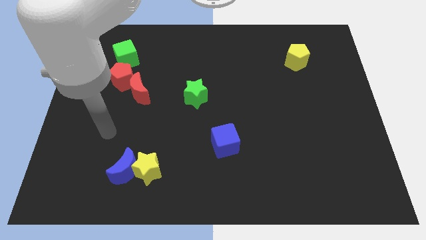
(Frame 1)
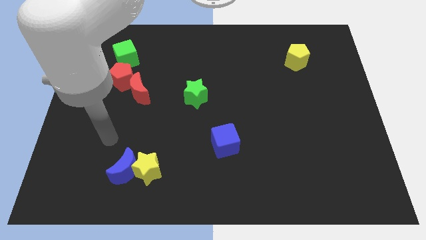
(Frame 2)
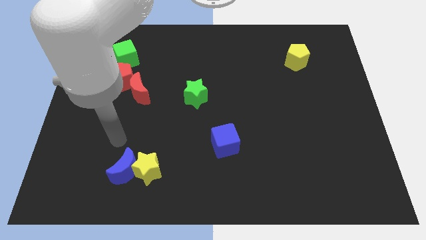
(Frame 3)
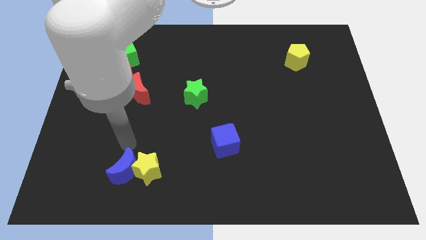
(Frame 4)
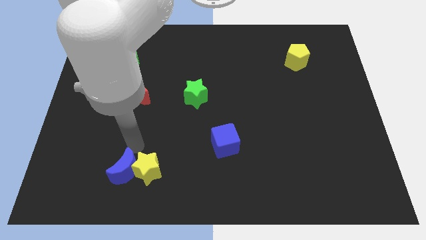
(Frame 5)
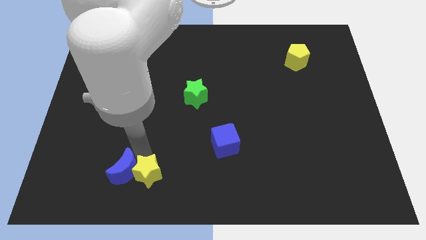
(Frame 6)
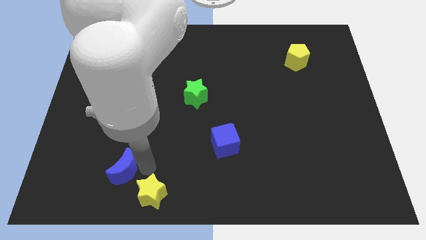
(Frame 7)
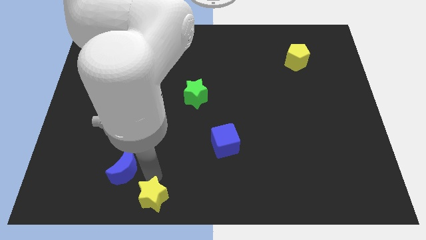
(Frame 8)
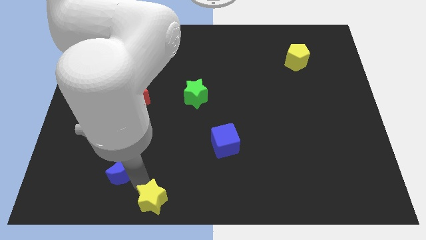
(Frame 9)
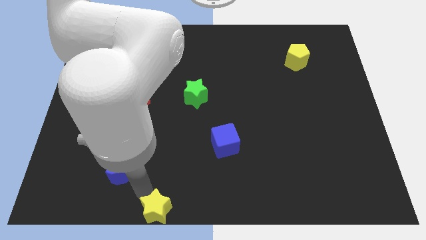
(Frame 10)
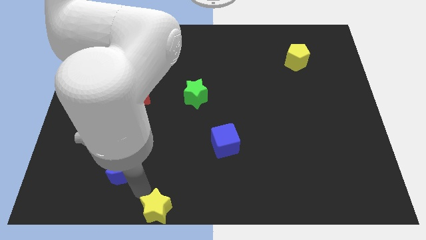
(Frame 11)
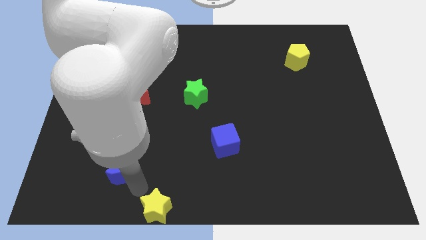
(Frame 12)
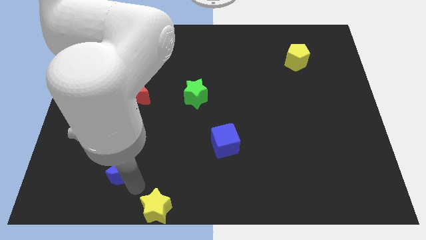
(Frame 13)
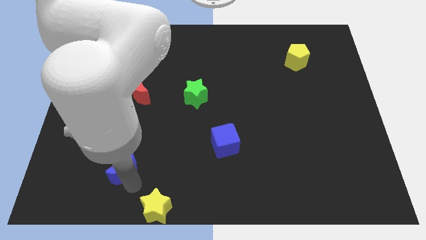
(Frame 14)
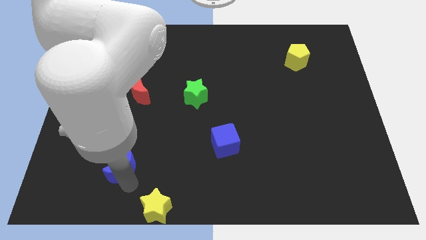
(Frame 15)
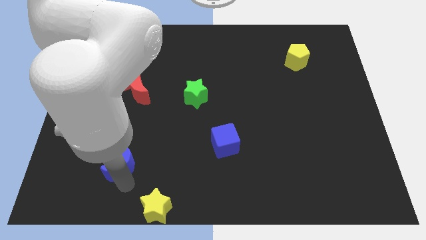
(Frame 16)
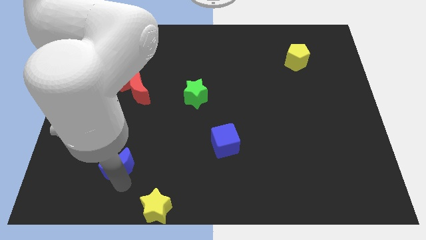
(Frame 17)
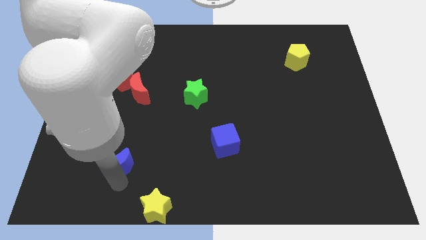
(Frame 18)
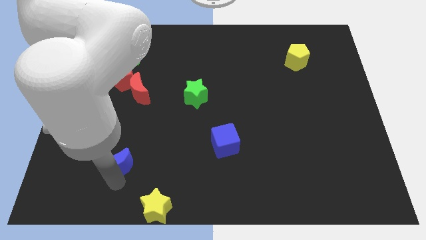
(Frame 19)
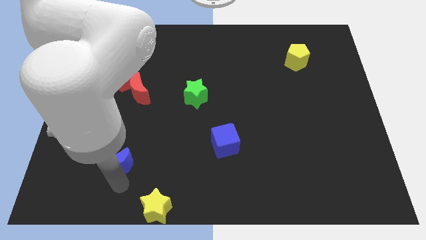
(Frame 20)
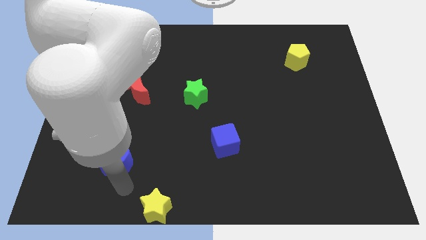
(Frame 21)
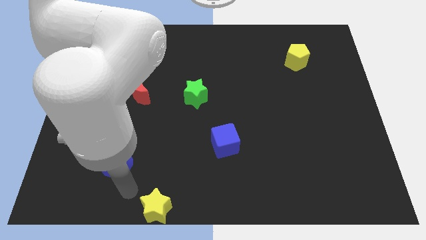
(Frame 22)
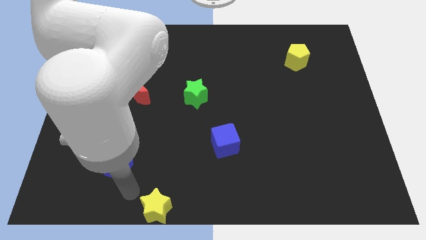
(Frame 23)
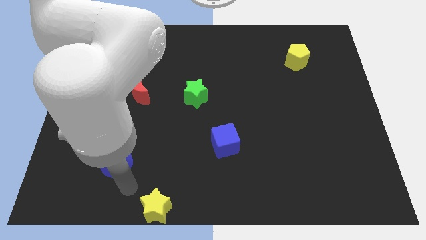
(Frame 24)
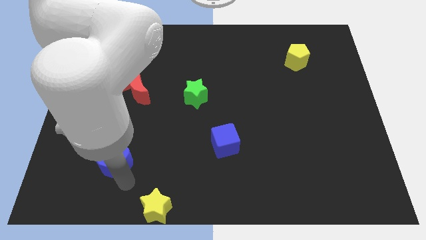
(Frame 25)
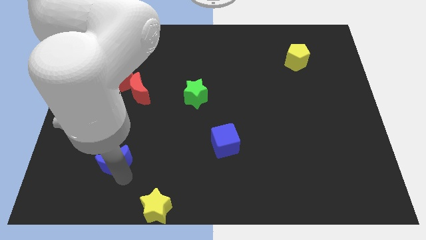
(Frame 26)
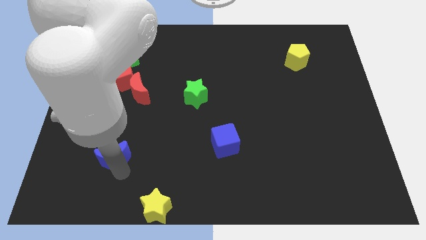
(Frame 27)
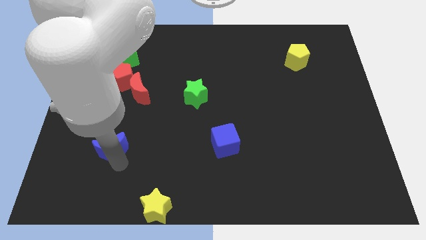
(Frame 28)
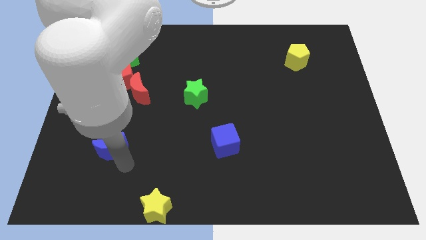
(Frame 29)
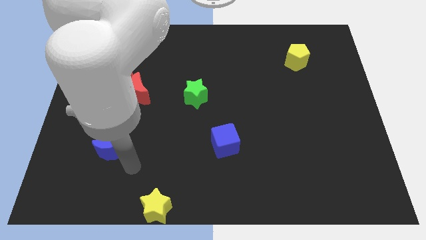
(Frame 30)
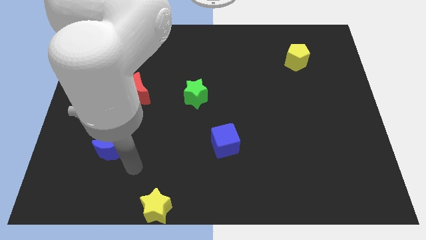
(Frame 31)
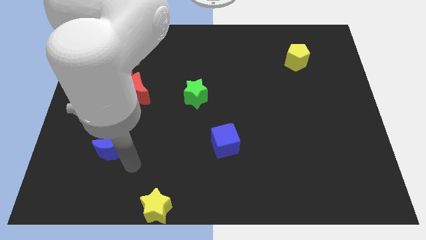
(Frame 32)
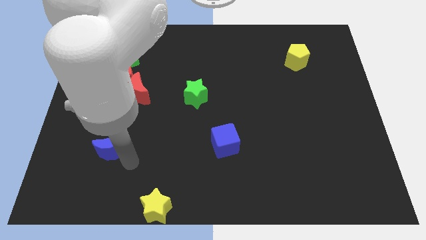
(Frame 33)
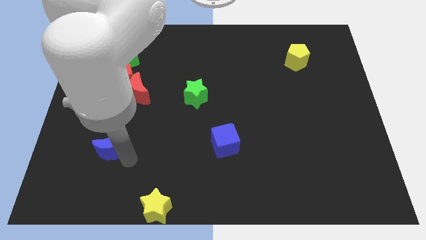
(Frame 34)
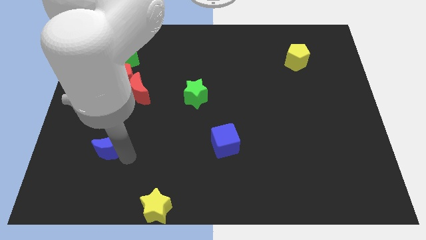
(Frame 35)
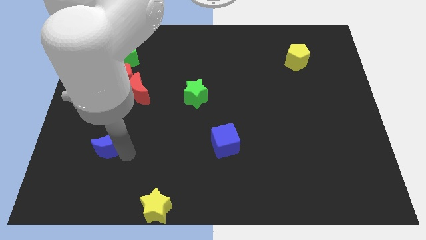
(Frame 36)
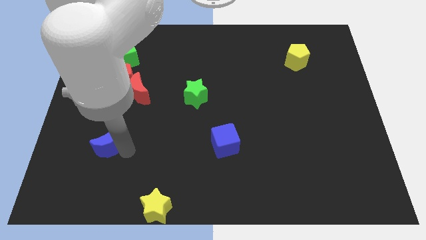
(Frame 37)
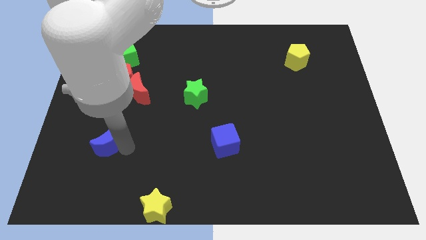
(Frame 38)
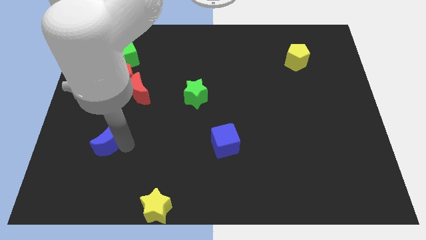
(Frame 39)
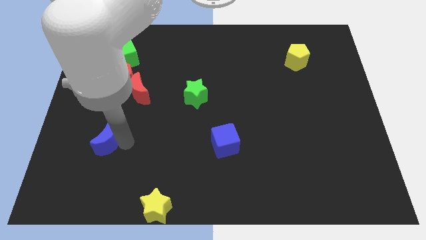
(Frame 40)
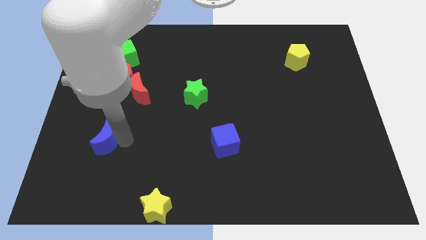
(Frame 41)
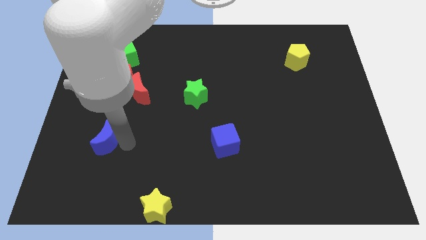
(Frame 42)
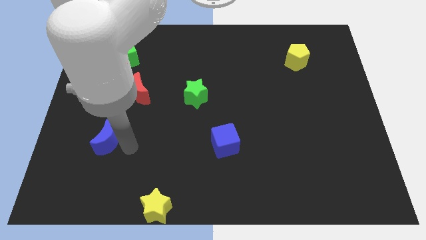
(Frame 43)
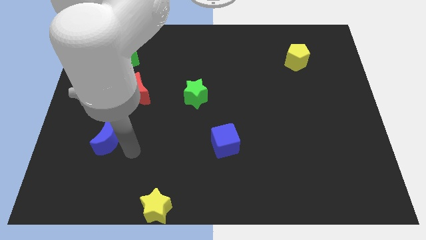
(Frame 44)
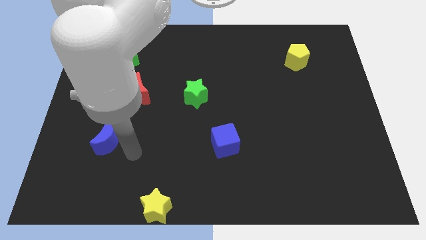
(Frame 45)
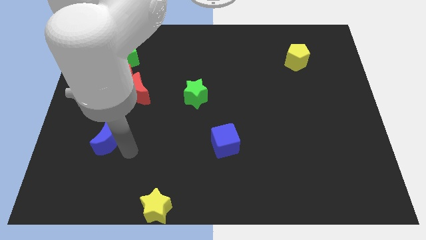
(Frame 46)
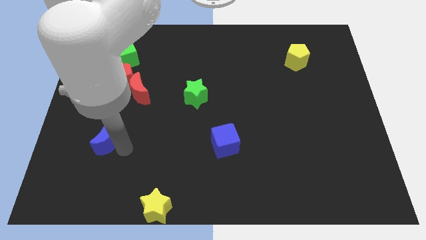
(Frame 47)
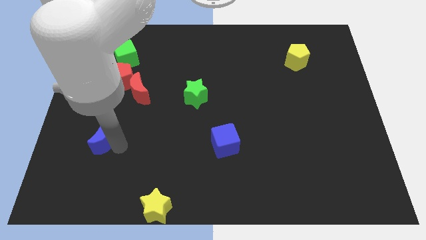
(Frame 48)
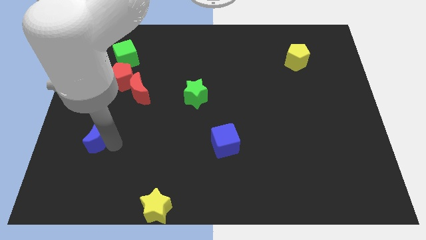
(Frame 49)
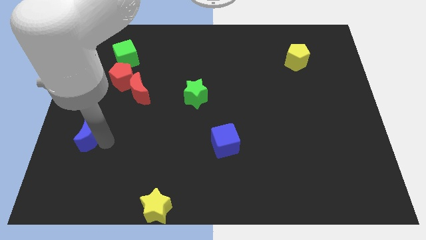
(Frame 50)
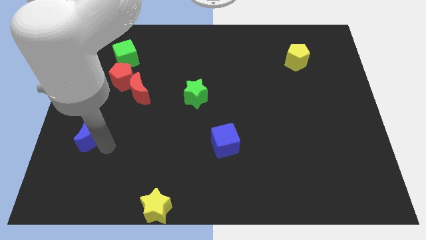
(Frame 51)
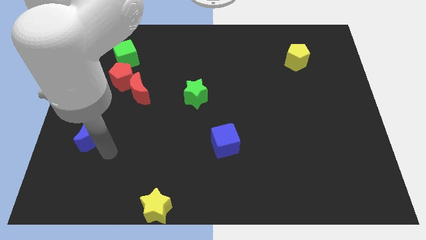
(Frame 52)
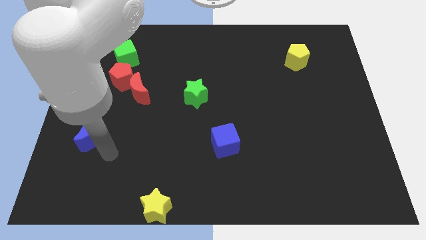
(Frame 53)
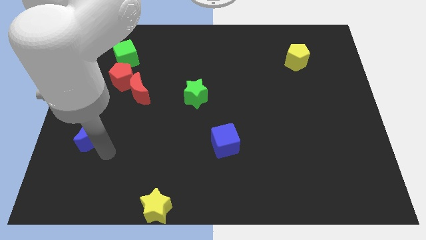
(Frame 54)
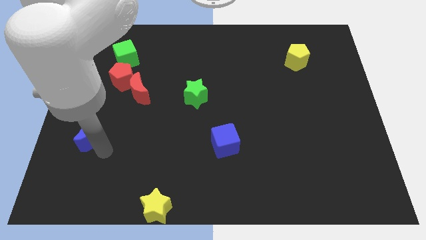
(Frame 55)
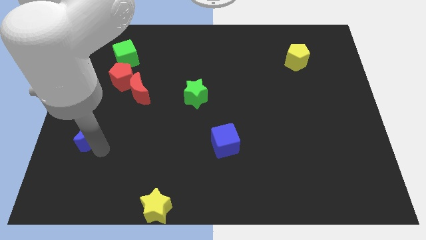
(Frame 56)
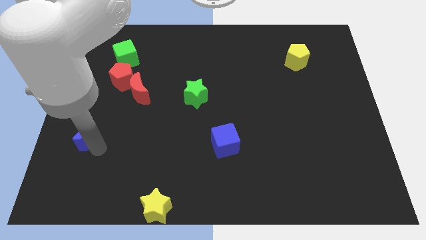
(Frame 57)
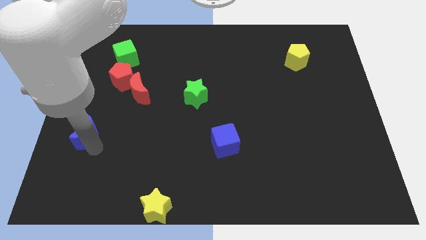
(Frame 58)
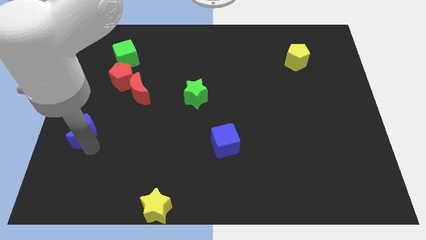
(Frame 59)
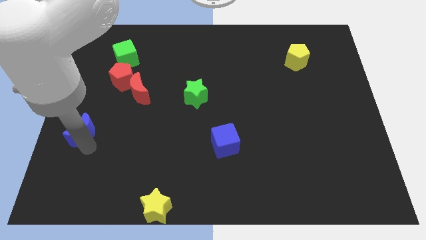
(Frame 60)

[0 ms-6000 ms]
push the blue moon to the left side

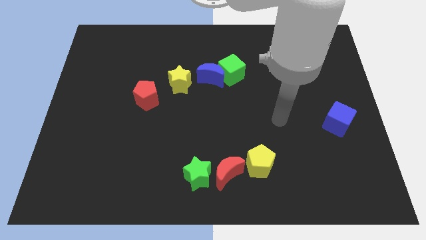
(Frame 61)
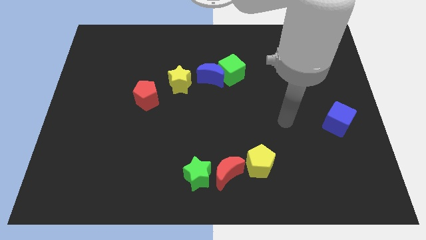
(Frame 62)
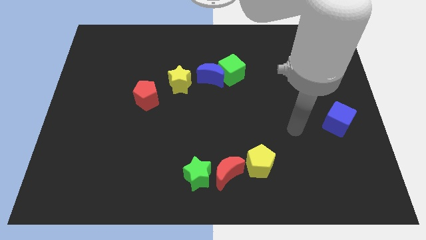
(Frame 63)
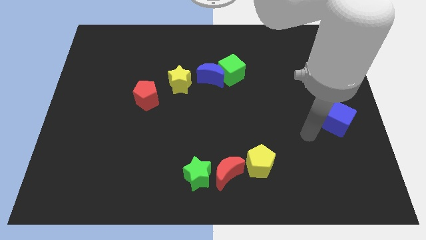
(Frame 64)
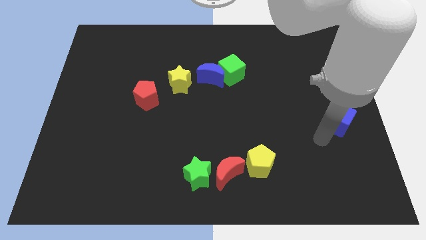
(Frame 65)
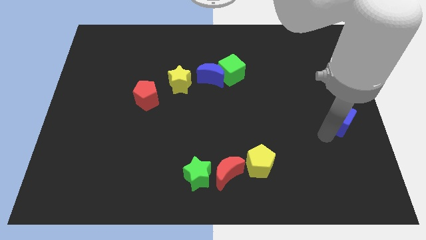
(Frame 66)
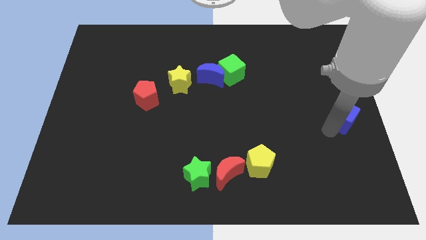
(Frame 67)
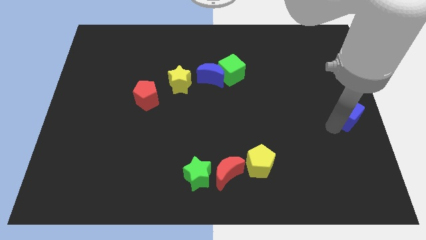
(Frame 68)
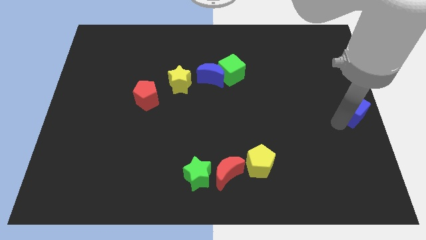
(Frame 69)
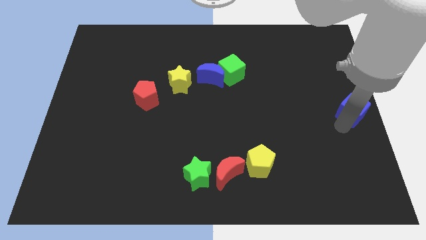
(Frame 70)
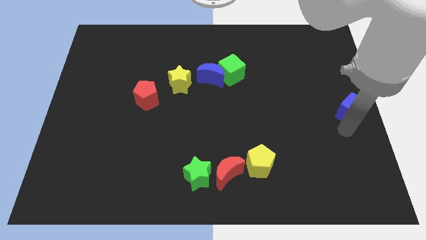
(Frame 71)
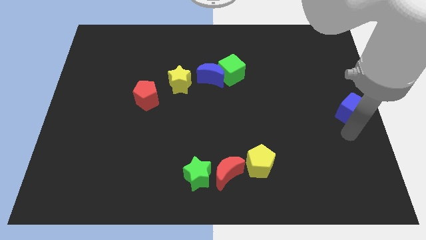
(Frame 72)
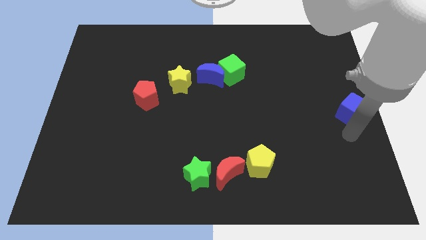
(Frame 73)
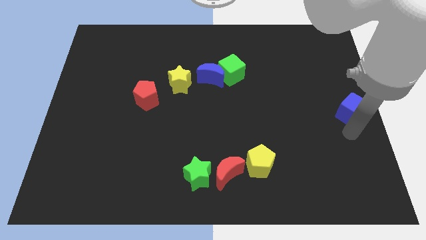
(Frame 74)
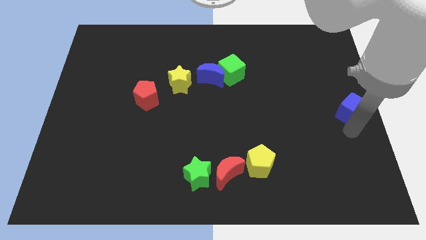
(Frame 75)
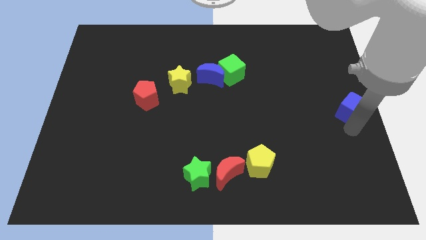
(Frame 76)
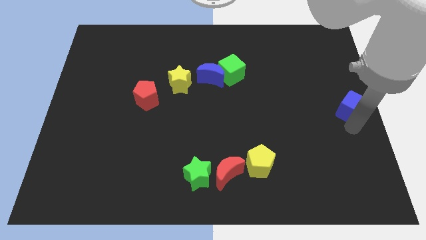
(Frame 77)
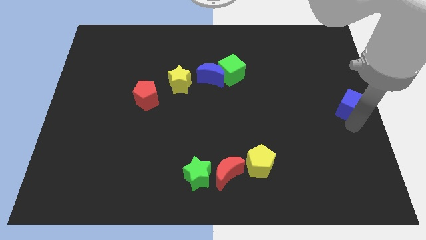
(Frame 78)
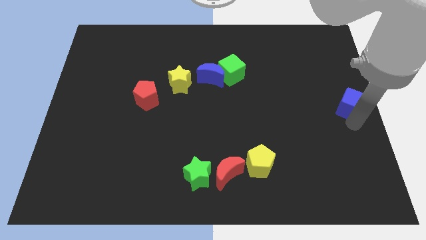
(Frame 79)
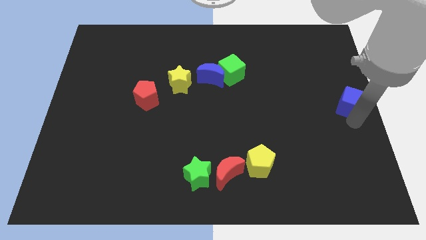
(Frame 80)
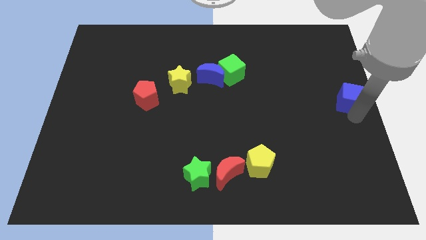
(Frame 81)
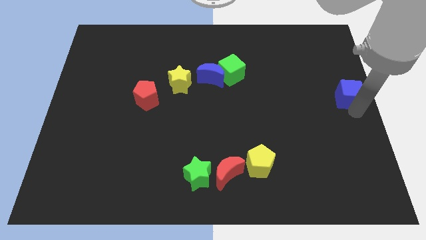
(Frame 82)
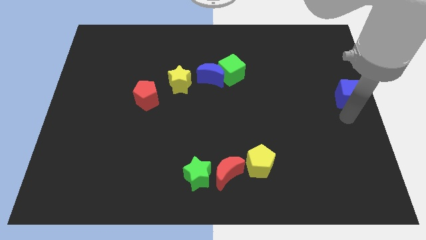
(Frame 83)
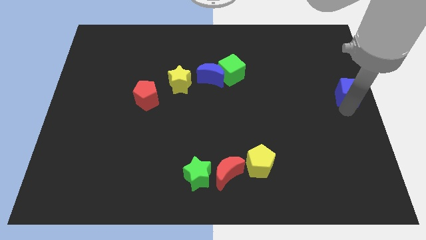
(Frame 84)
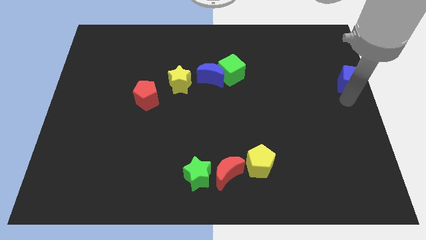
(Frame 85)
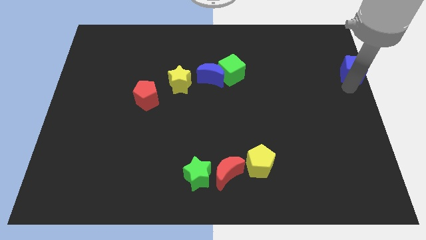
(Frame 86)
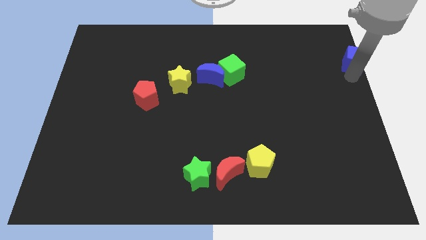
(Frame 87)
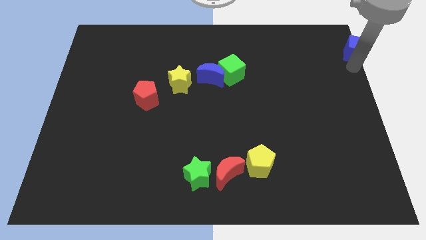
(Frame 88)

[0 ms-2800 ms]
slide the blue cube to the top right
